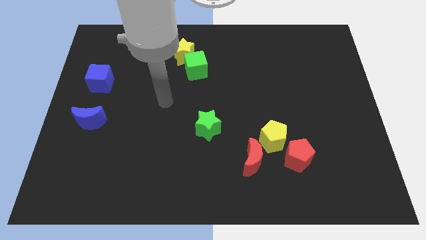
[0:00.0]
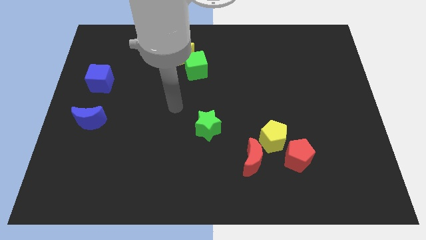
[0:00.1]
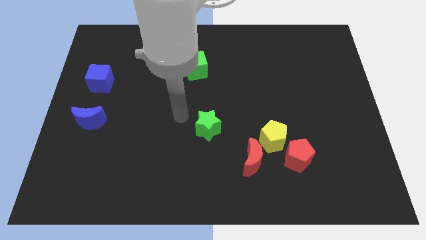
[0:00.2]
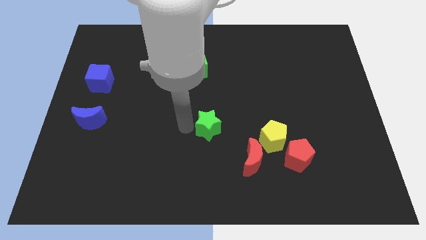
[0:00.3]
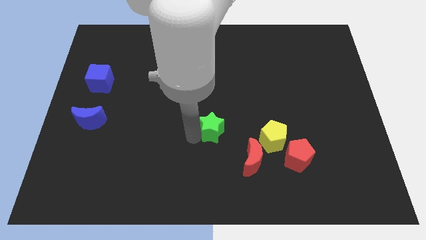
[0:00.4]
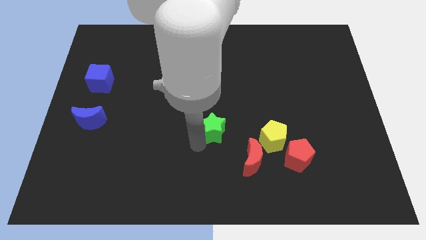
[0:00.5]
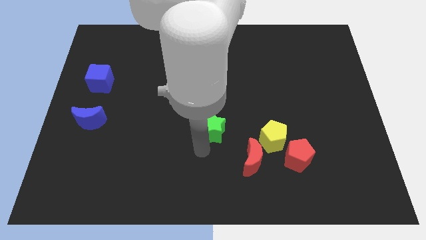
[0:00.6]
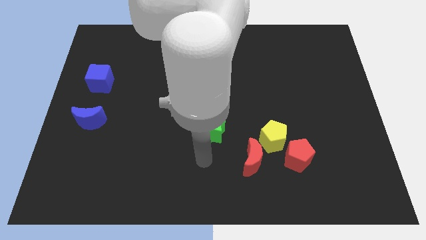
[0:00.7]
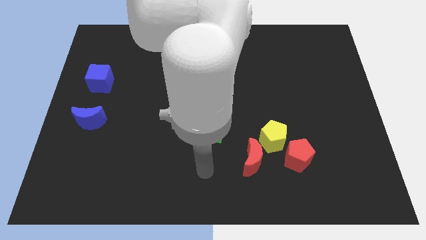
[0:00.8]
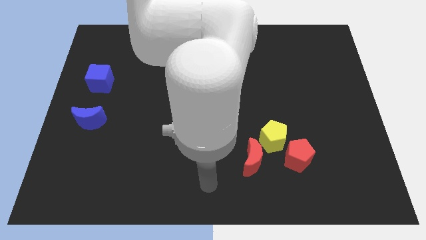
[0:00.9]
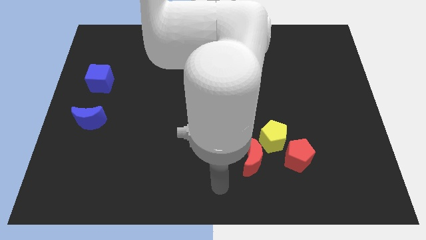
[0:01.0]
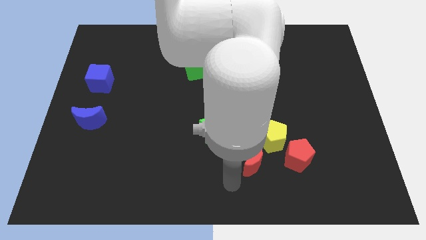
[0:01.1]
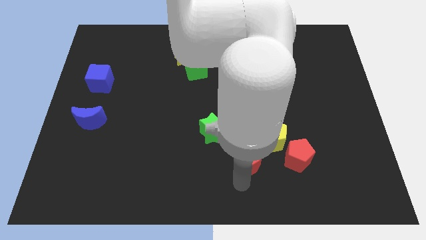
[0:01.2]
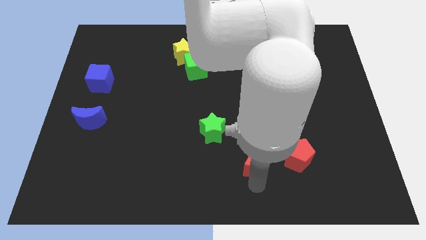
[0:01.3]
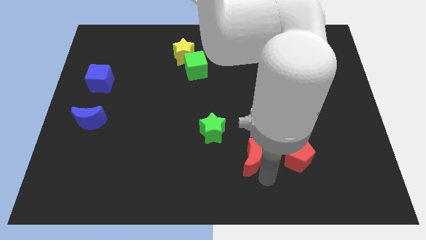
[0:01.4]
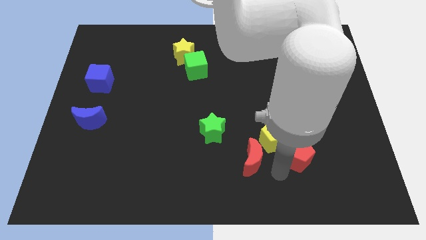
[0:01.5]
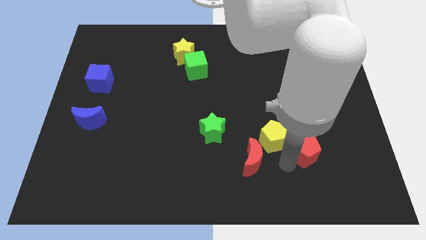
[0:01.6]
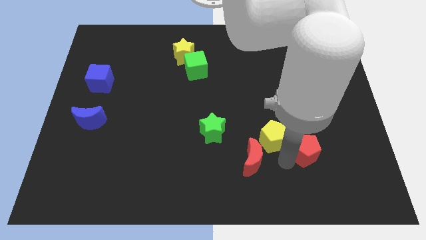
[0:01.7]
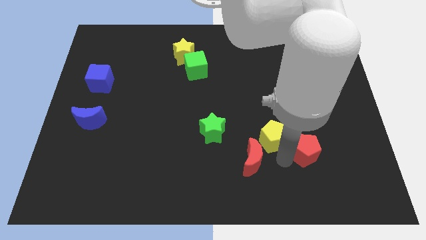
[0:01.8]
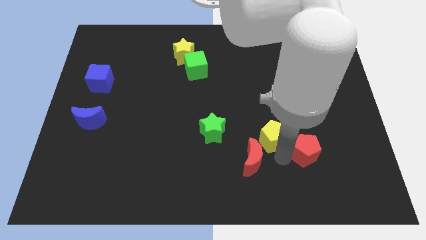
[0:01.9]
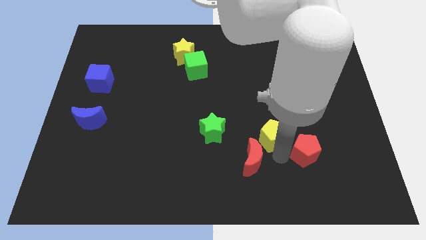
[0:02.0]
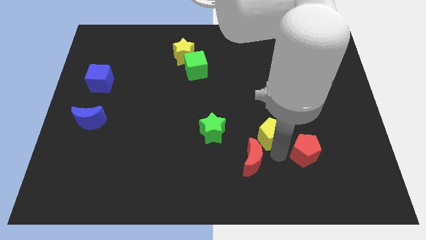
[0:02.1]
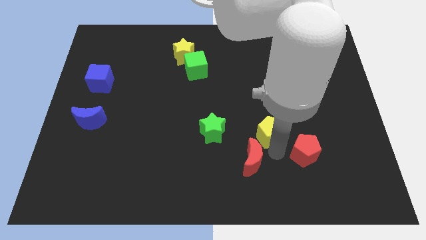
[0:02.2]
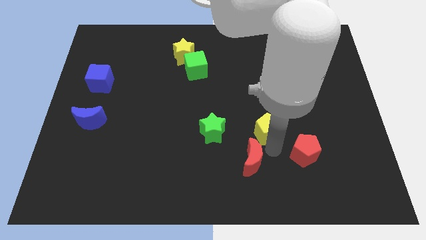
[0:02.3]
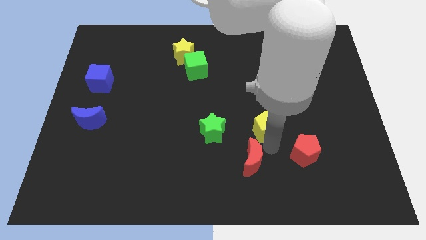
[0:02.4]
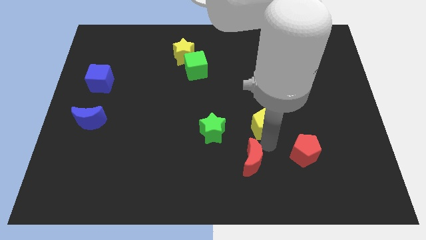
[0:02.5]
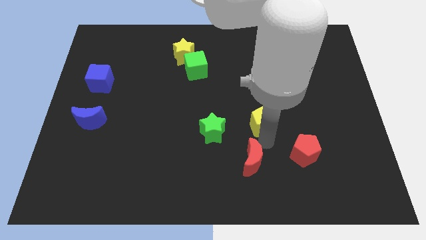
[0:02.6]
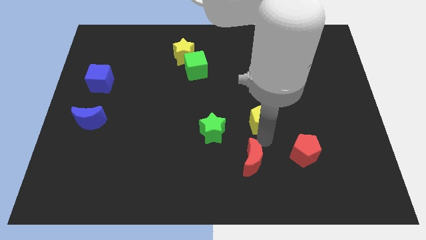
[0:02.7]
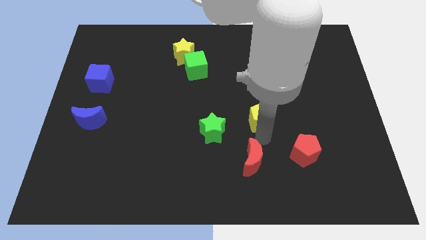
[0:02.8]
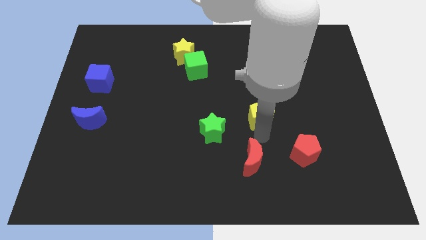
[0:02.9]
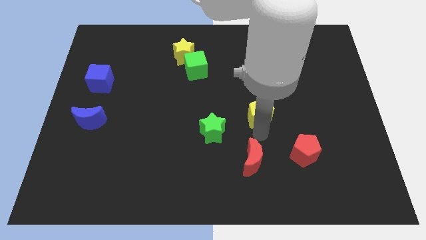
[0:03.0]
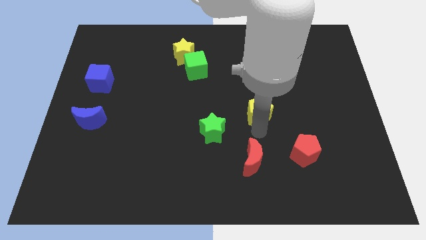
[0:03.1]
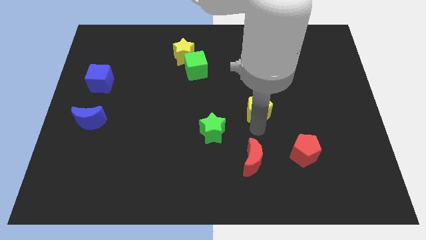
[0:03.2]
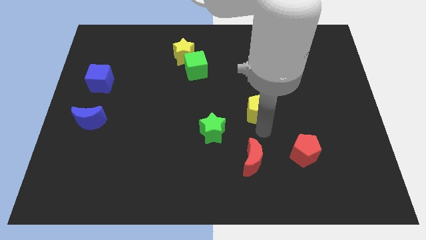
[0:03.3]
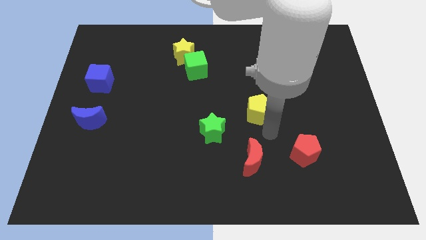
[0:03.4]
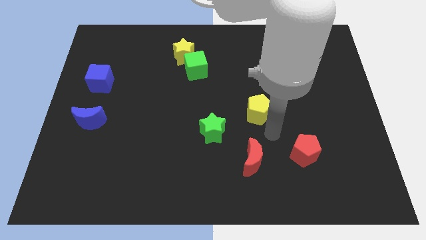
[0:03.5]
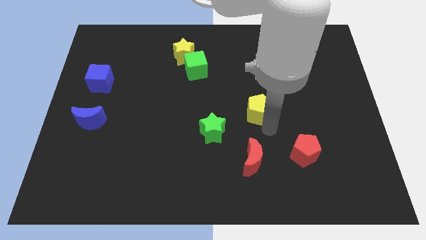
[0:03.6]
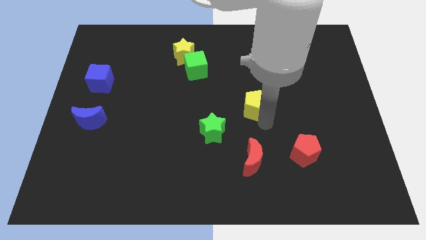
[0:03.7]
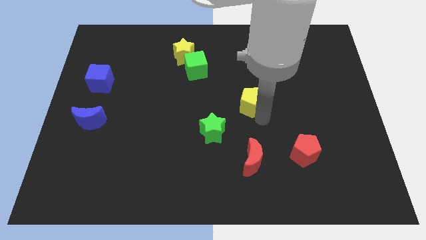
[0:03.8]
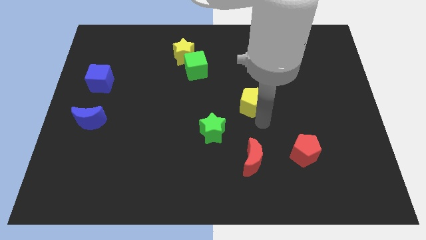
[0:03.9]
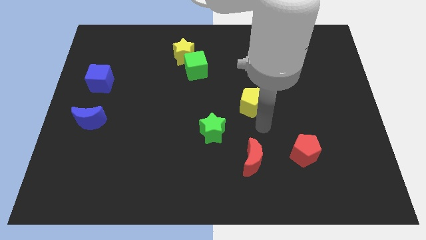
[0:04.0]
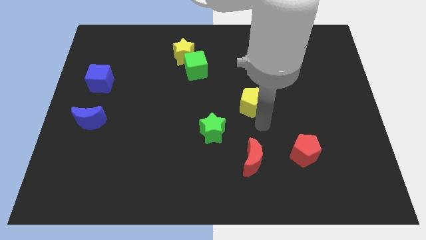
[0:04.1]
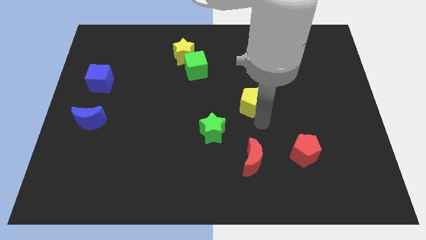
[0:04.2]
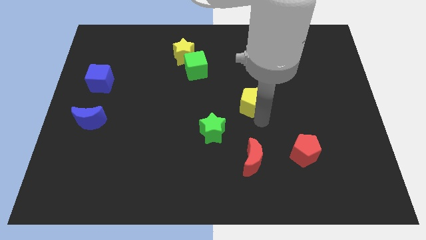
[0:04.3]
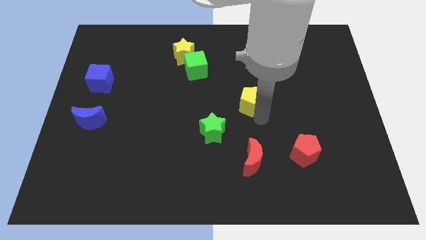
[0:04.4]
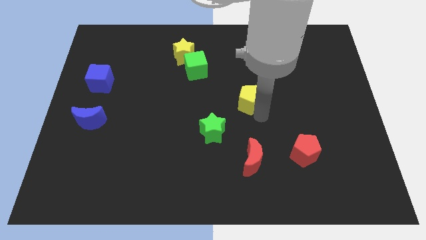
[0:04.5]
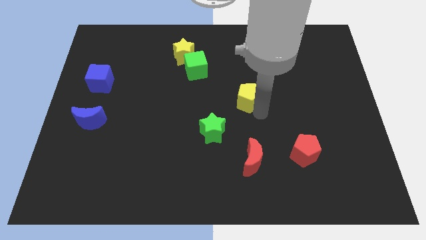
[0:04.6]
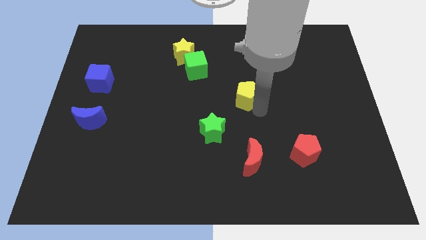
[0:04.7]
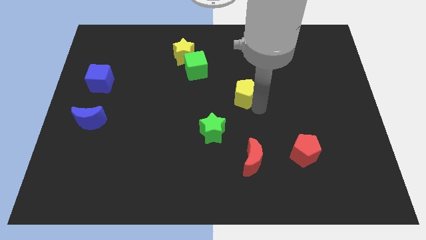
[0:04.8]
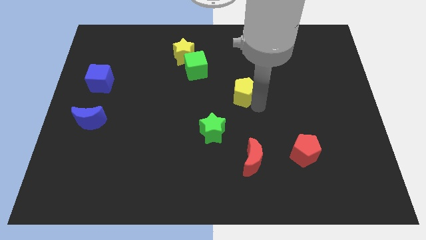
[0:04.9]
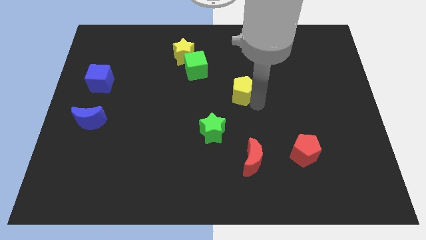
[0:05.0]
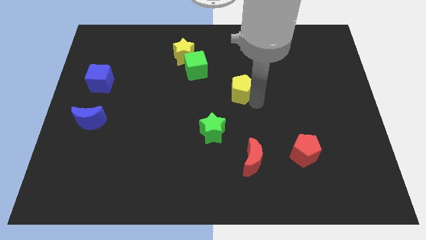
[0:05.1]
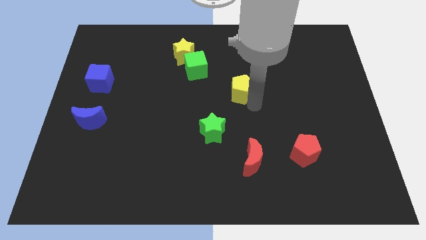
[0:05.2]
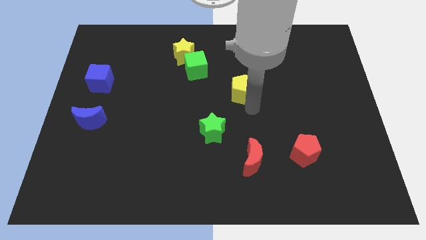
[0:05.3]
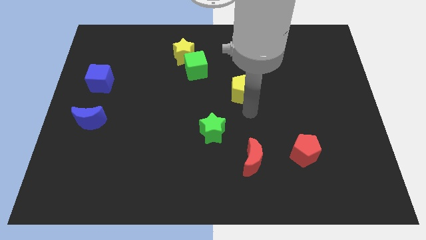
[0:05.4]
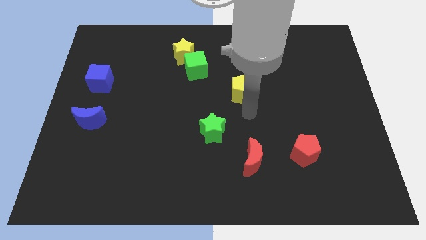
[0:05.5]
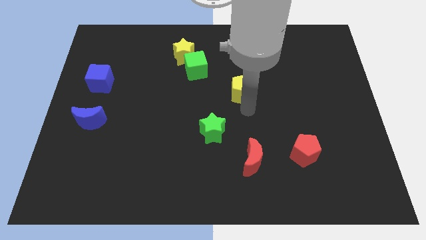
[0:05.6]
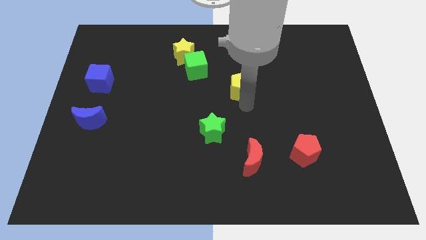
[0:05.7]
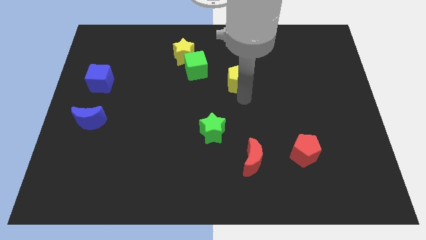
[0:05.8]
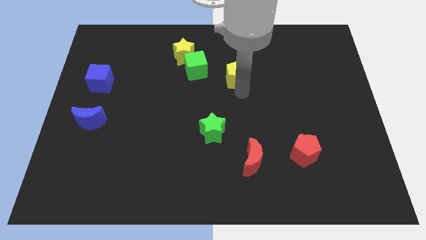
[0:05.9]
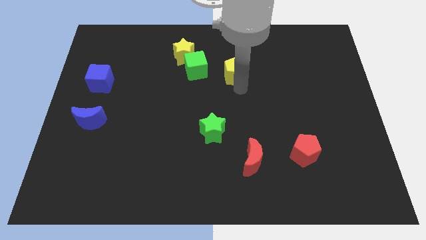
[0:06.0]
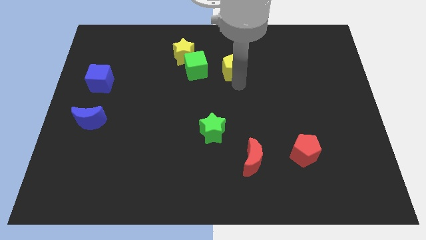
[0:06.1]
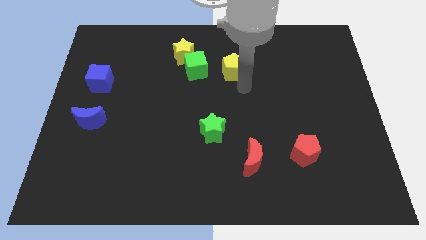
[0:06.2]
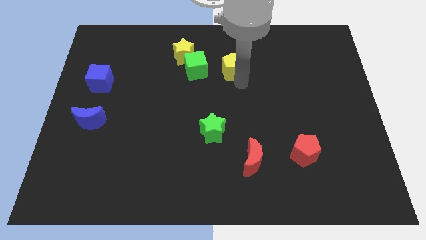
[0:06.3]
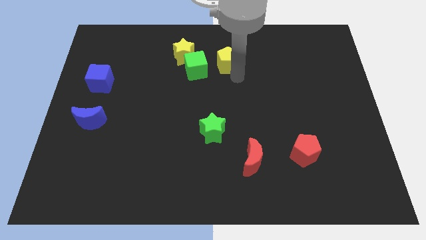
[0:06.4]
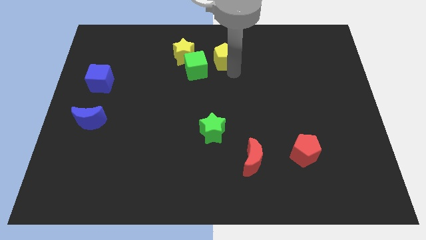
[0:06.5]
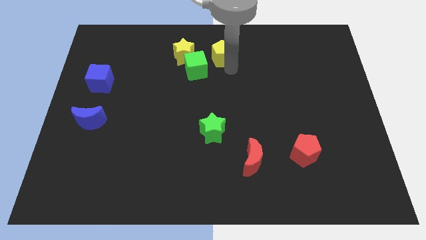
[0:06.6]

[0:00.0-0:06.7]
slide the yellow pentagon to the top side
